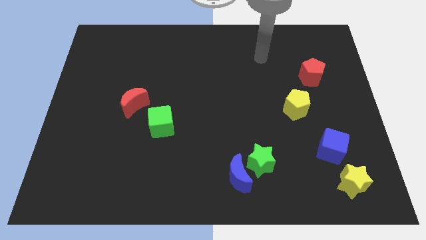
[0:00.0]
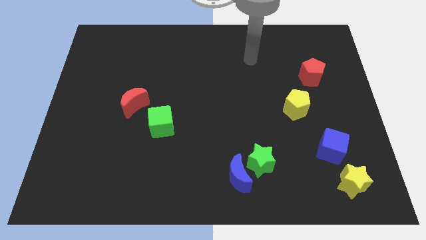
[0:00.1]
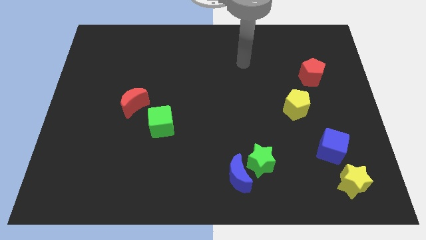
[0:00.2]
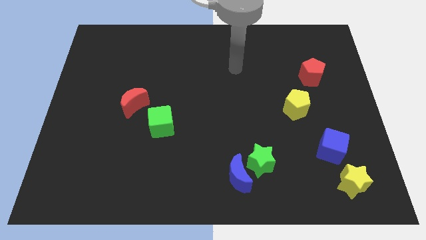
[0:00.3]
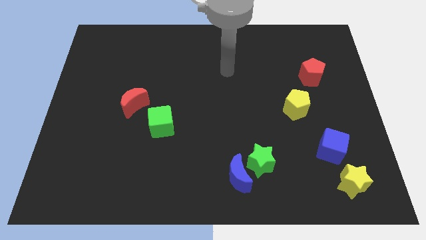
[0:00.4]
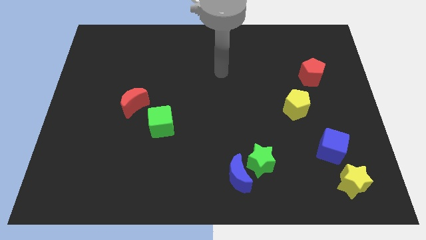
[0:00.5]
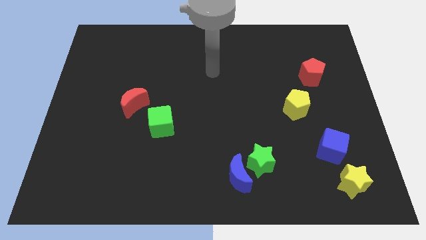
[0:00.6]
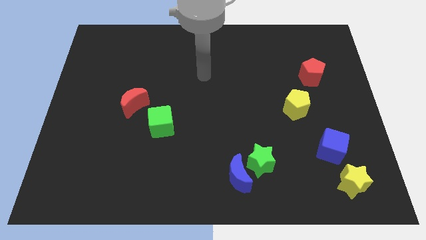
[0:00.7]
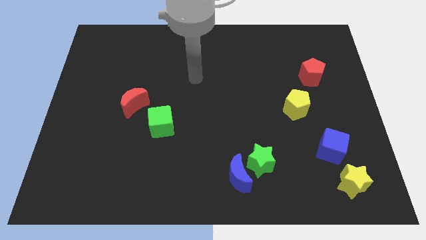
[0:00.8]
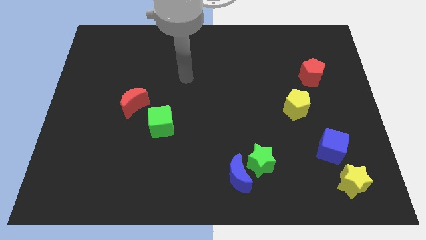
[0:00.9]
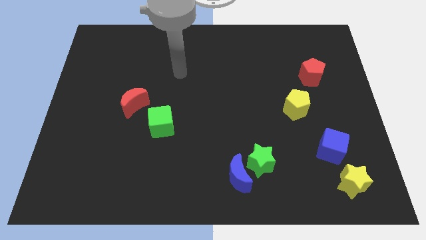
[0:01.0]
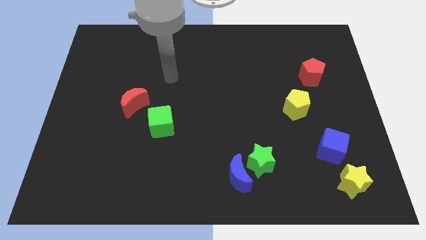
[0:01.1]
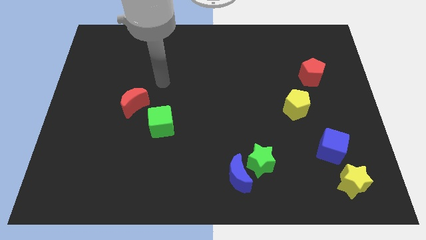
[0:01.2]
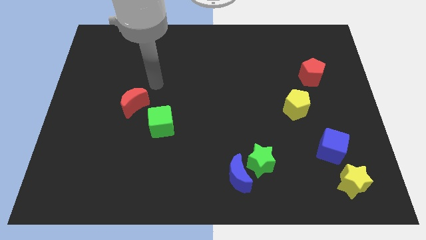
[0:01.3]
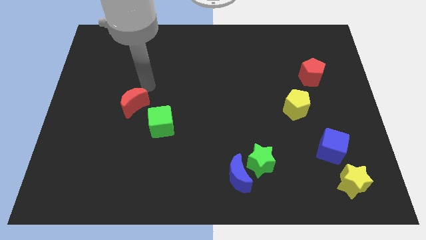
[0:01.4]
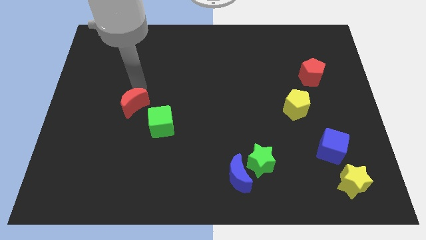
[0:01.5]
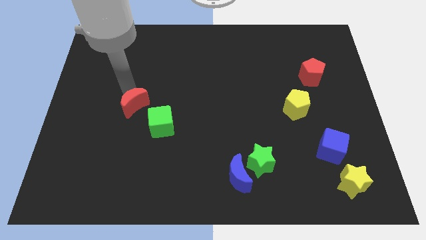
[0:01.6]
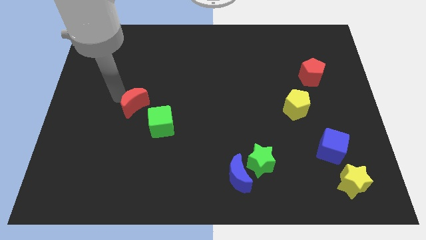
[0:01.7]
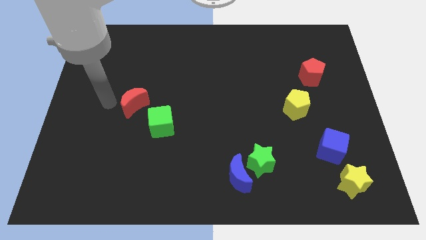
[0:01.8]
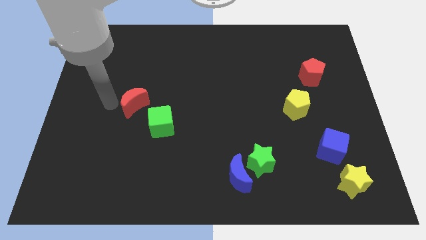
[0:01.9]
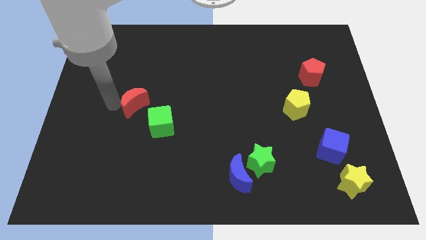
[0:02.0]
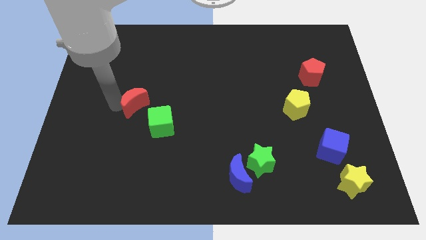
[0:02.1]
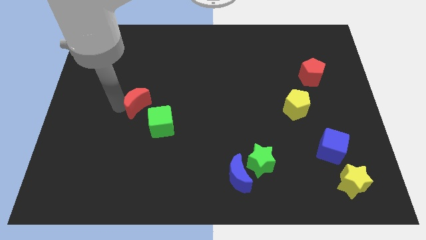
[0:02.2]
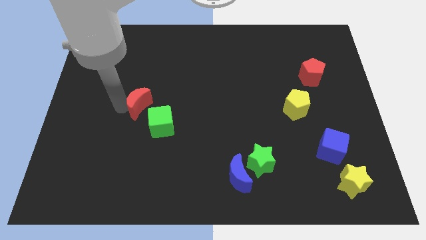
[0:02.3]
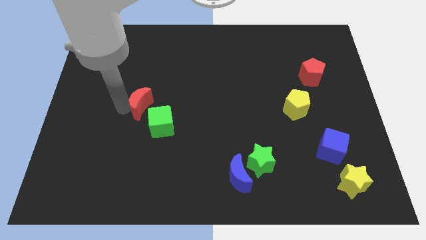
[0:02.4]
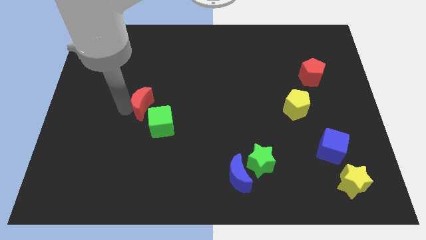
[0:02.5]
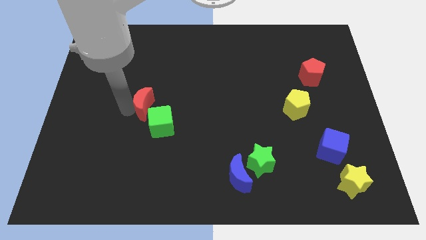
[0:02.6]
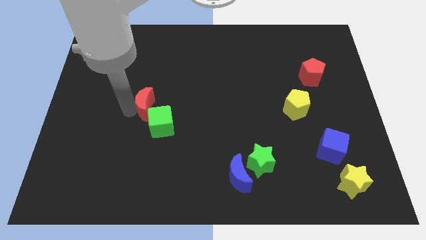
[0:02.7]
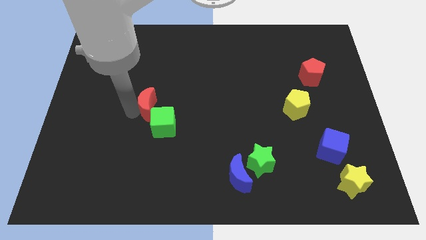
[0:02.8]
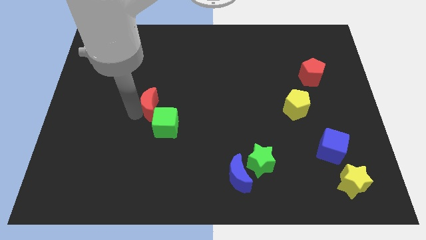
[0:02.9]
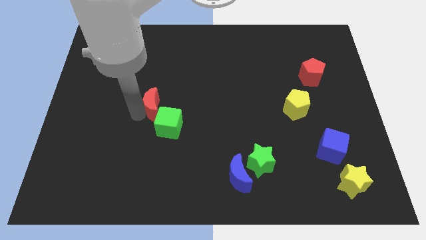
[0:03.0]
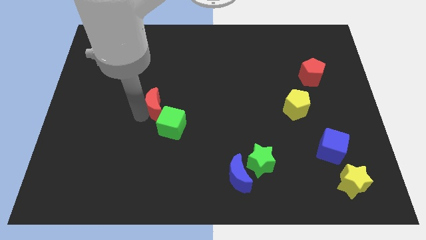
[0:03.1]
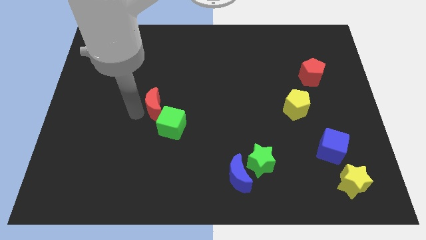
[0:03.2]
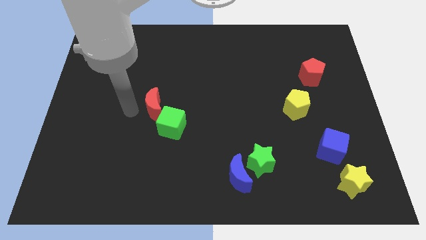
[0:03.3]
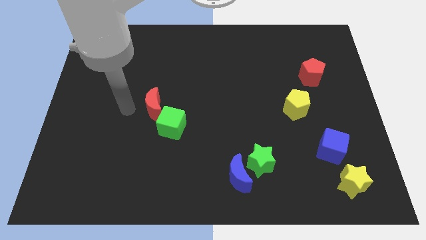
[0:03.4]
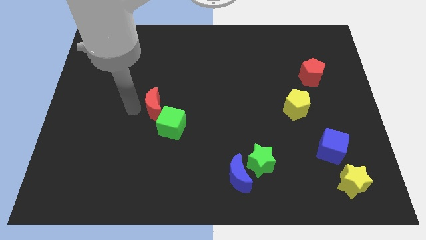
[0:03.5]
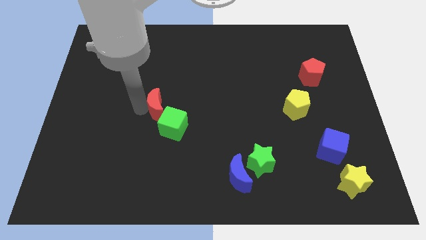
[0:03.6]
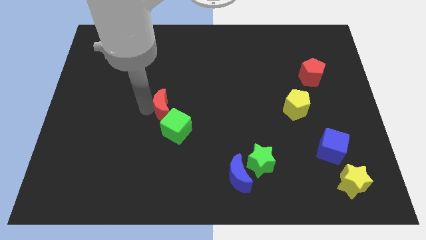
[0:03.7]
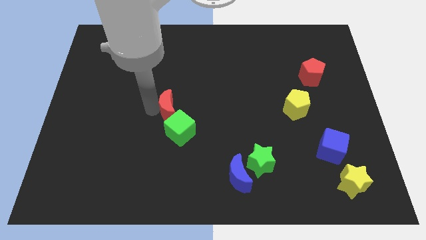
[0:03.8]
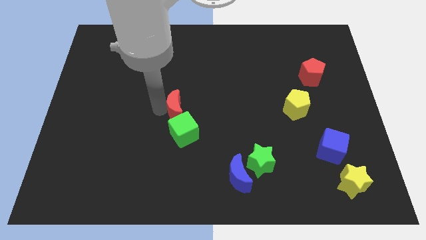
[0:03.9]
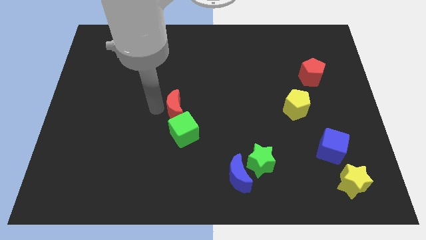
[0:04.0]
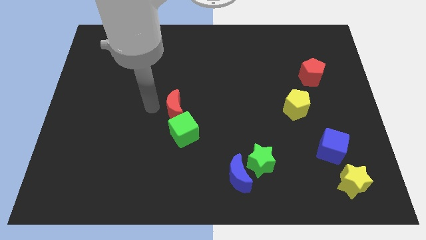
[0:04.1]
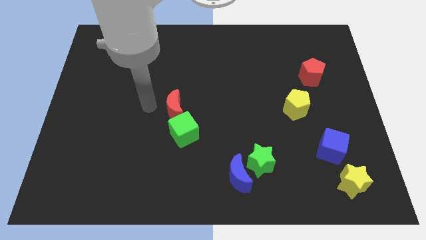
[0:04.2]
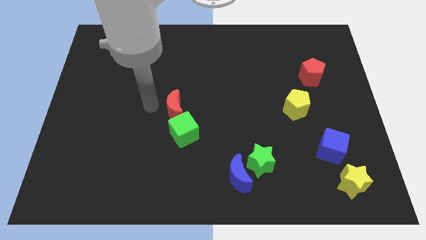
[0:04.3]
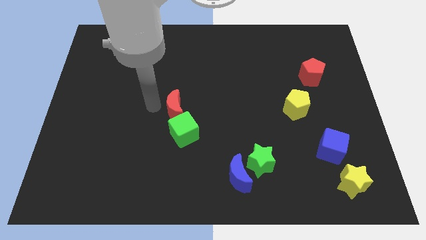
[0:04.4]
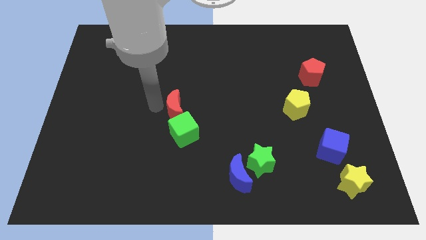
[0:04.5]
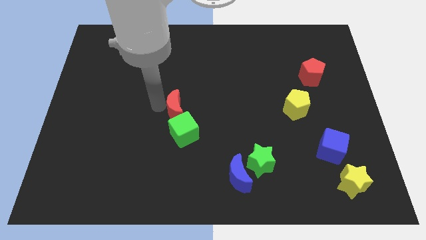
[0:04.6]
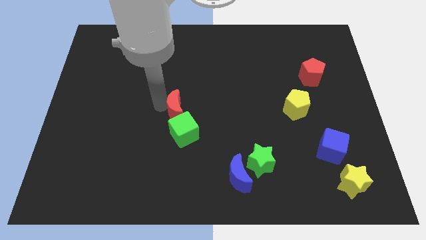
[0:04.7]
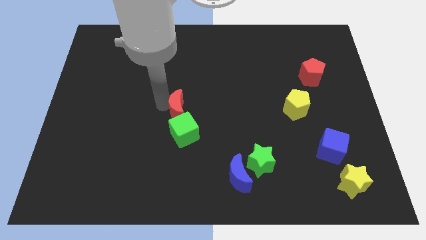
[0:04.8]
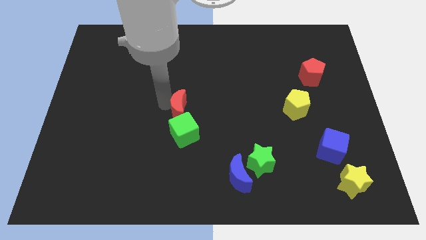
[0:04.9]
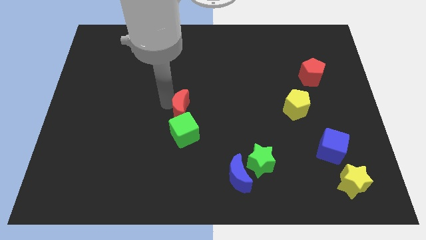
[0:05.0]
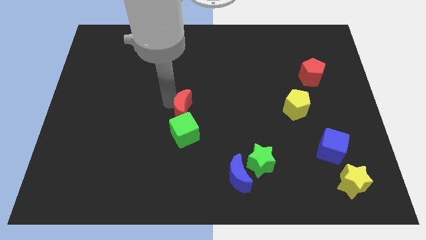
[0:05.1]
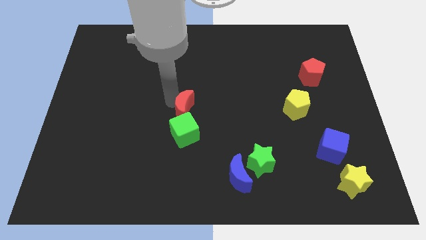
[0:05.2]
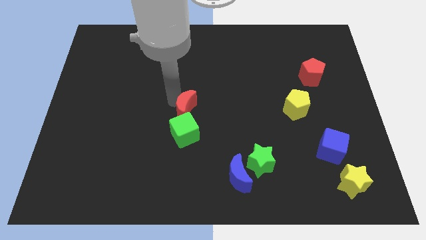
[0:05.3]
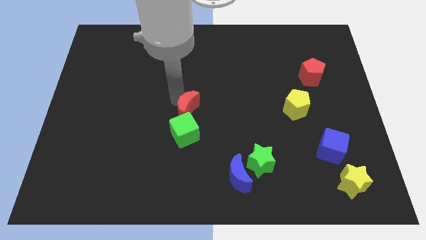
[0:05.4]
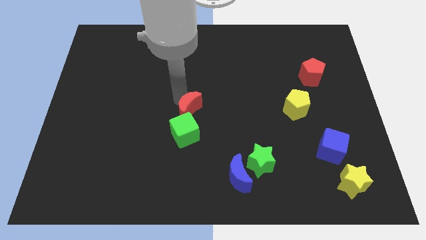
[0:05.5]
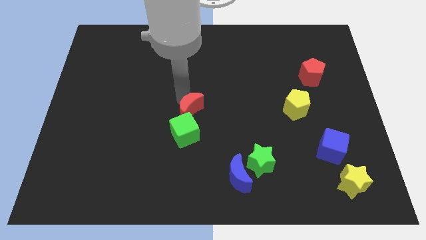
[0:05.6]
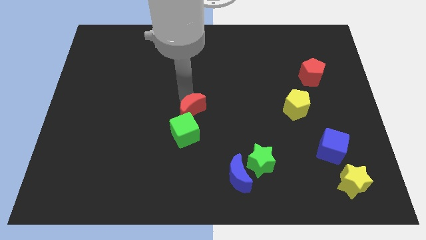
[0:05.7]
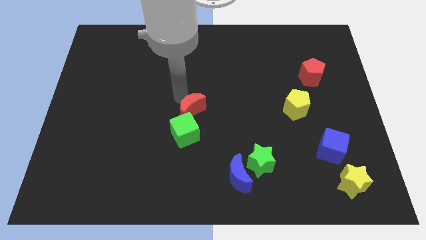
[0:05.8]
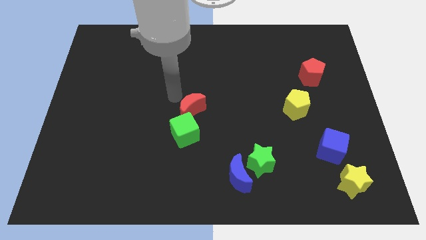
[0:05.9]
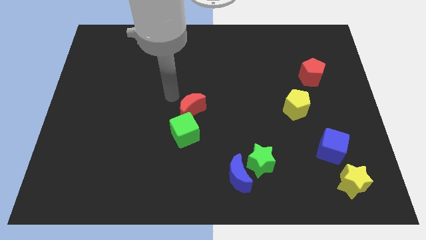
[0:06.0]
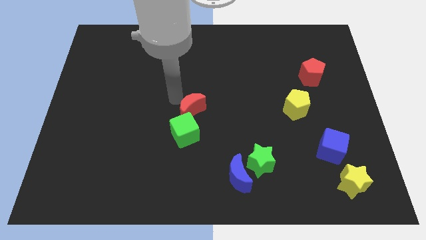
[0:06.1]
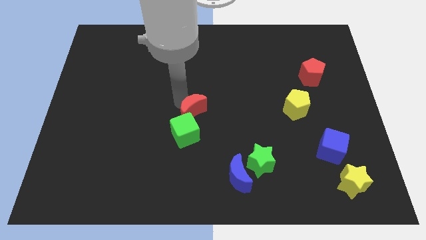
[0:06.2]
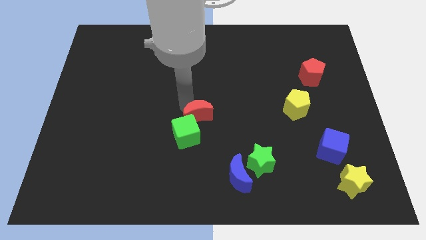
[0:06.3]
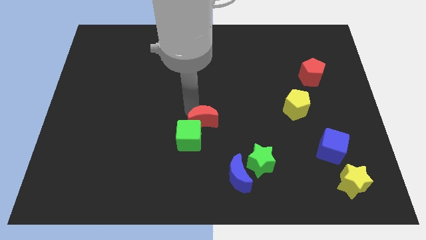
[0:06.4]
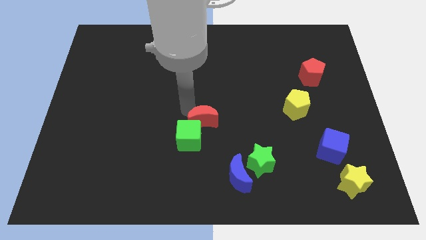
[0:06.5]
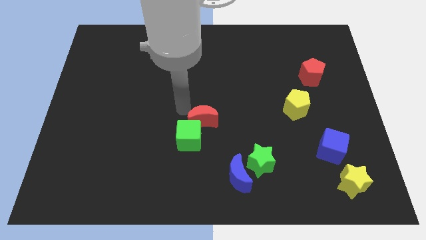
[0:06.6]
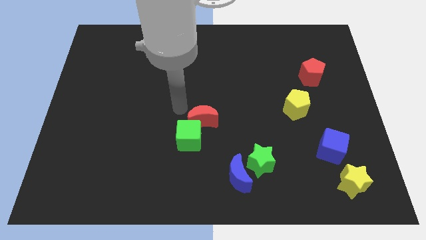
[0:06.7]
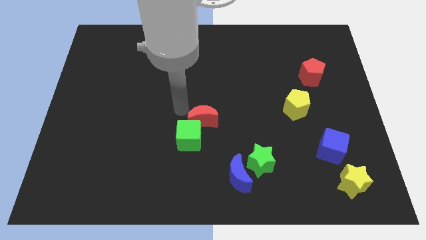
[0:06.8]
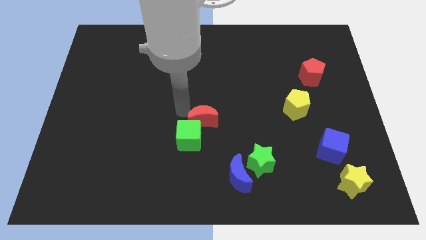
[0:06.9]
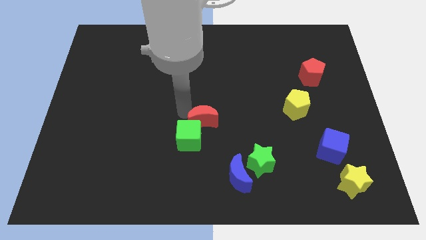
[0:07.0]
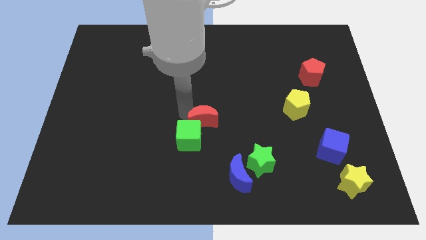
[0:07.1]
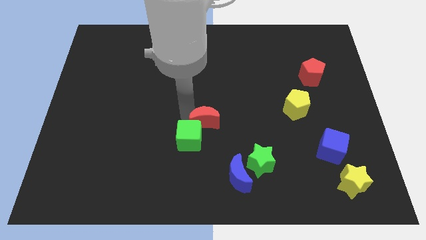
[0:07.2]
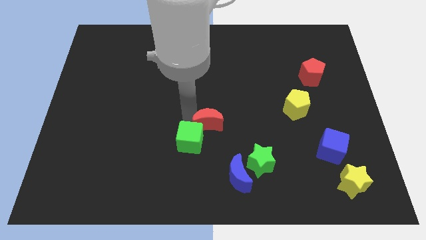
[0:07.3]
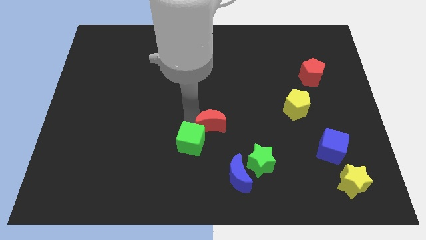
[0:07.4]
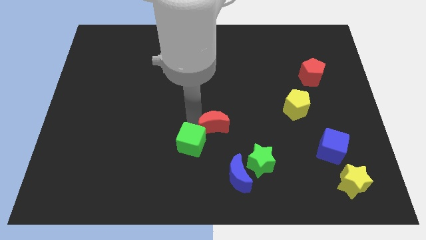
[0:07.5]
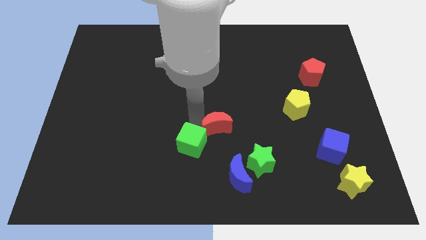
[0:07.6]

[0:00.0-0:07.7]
slide the red moon above the blue moon
